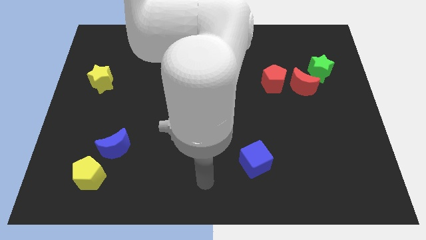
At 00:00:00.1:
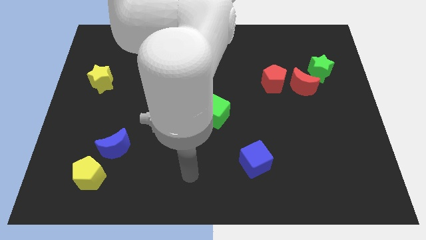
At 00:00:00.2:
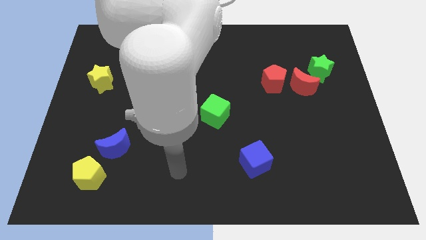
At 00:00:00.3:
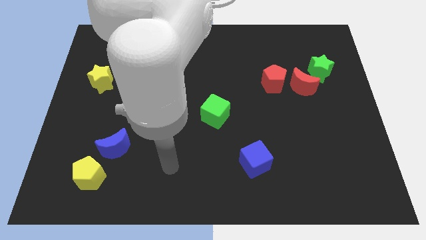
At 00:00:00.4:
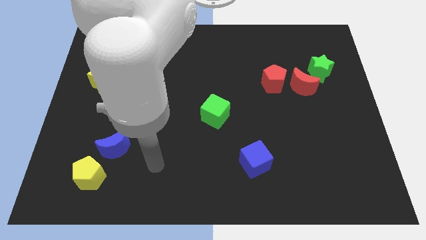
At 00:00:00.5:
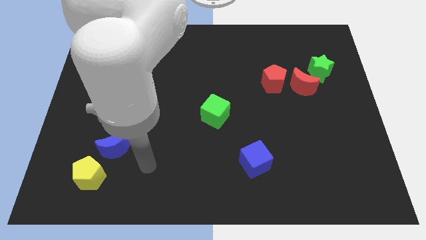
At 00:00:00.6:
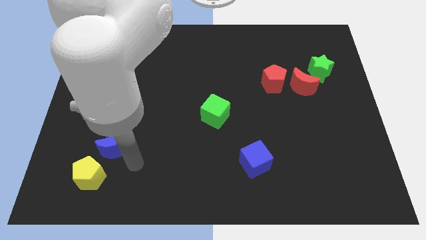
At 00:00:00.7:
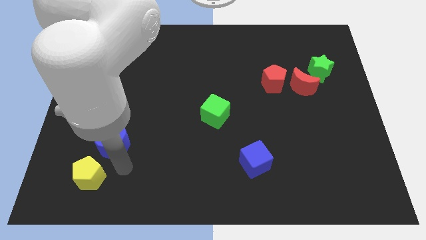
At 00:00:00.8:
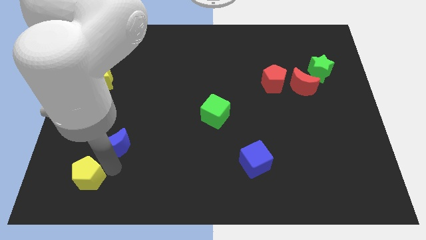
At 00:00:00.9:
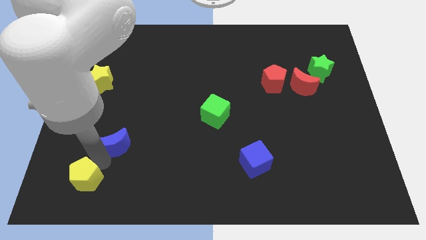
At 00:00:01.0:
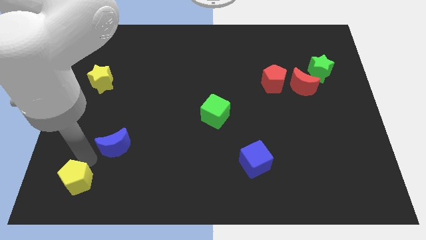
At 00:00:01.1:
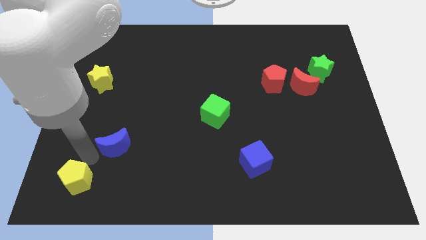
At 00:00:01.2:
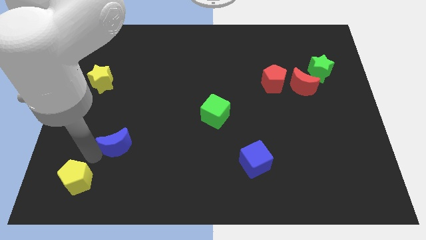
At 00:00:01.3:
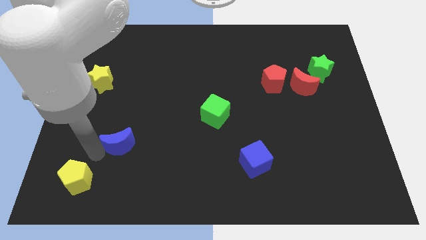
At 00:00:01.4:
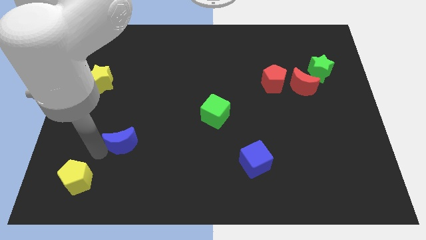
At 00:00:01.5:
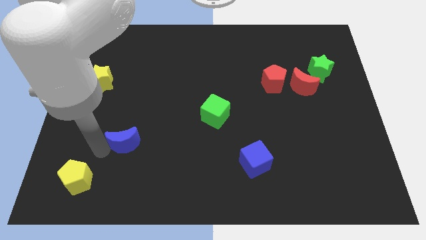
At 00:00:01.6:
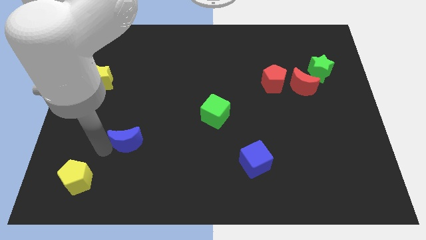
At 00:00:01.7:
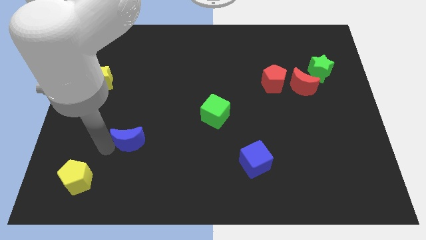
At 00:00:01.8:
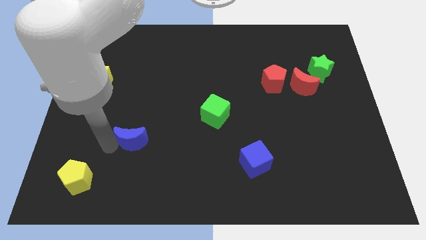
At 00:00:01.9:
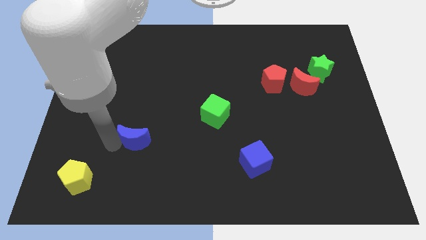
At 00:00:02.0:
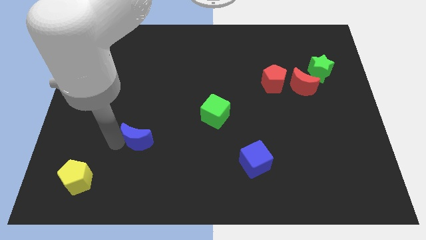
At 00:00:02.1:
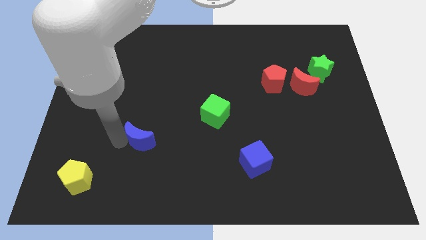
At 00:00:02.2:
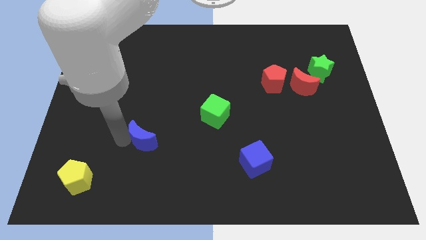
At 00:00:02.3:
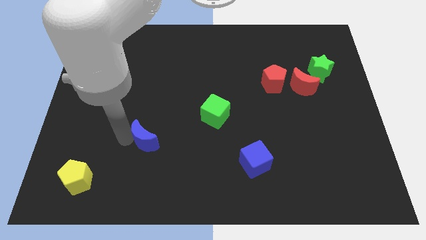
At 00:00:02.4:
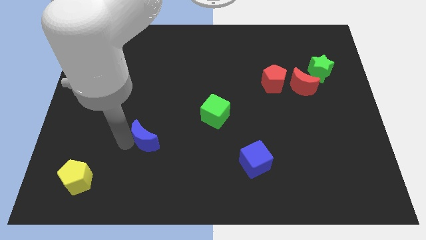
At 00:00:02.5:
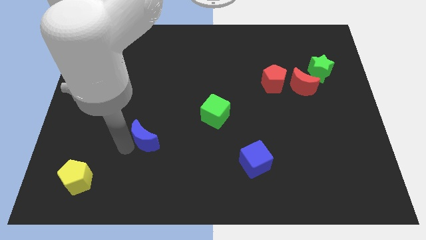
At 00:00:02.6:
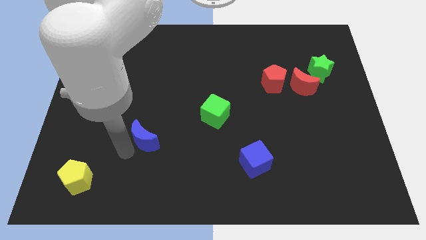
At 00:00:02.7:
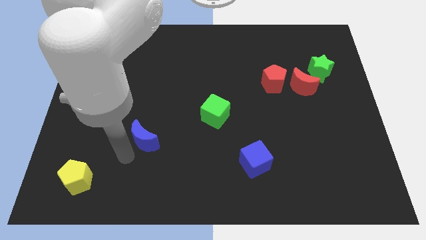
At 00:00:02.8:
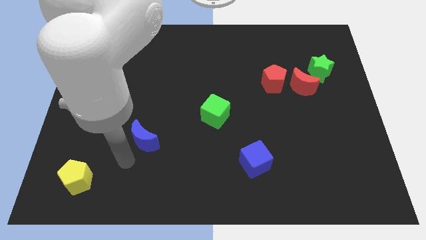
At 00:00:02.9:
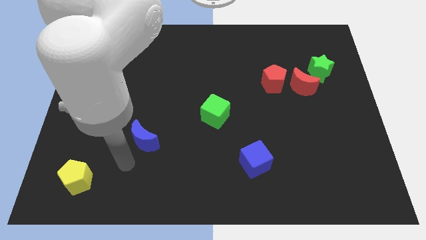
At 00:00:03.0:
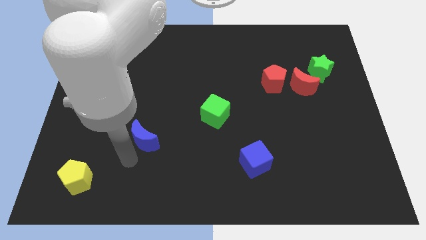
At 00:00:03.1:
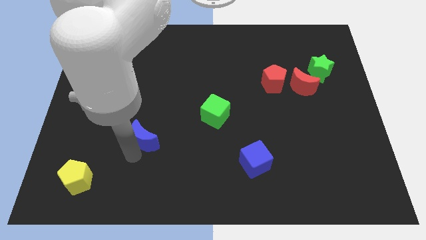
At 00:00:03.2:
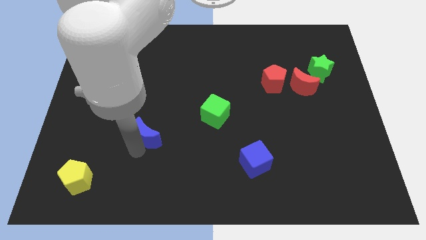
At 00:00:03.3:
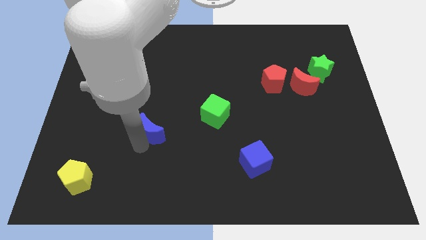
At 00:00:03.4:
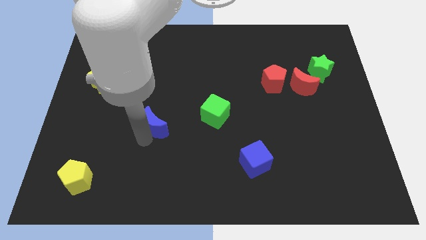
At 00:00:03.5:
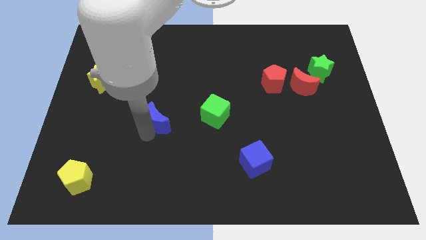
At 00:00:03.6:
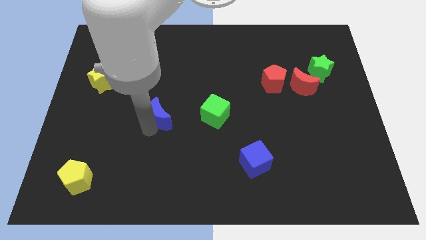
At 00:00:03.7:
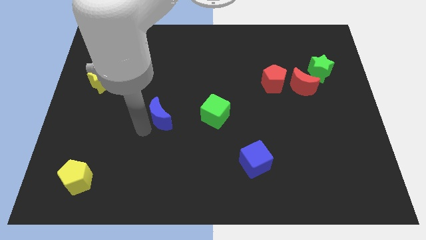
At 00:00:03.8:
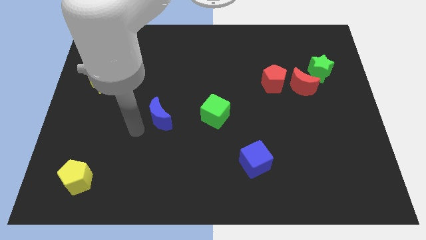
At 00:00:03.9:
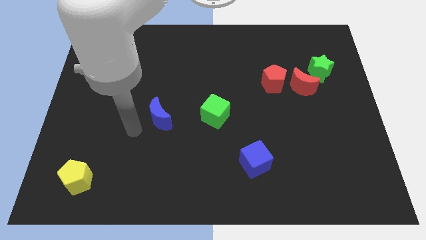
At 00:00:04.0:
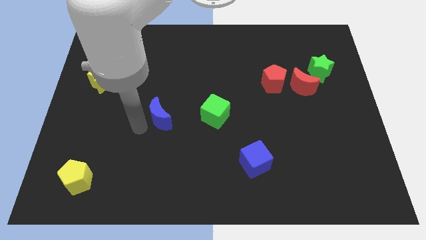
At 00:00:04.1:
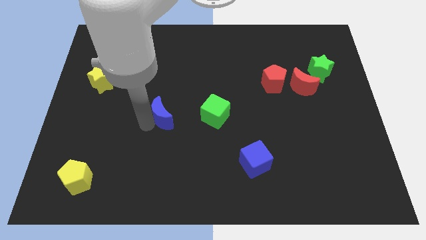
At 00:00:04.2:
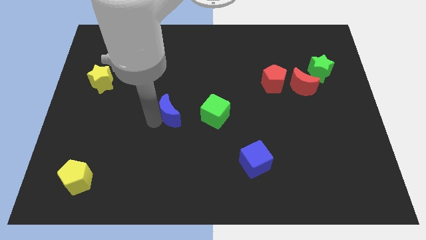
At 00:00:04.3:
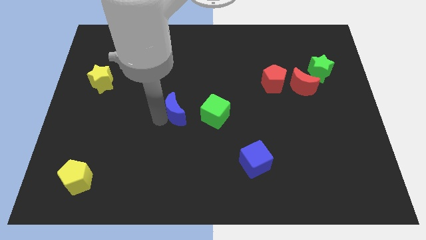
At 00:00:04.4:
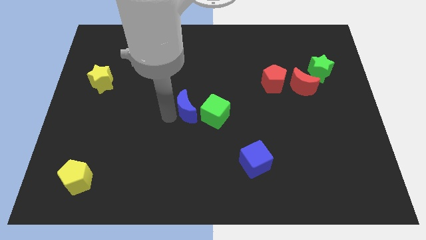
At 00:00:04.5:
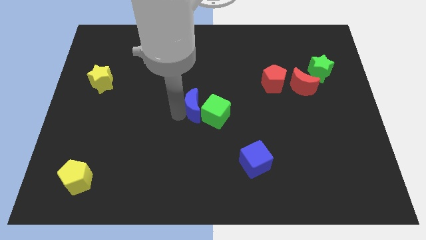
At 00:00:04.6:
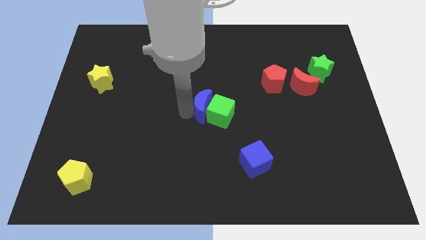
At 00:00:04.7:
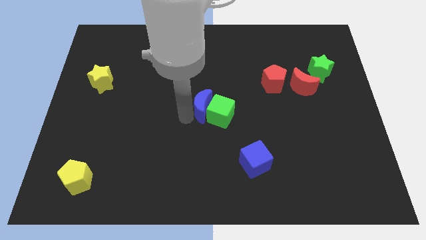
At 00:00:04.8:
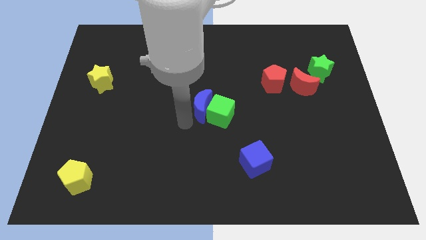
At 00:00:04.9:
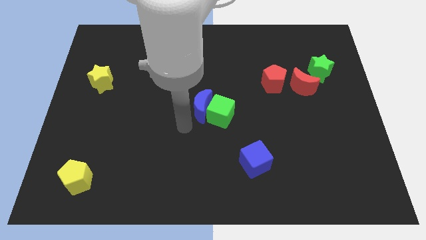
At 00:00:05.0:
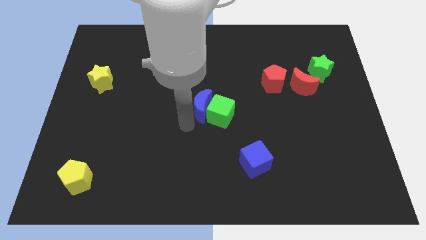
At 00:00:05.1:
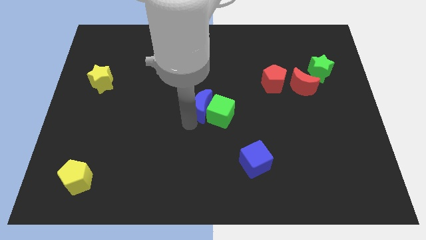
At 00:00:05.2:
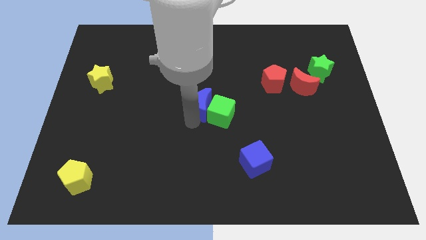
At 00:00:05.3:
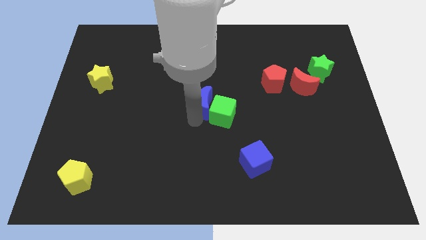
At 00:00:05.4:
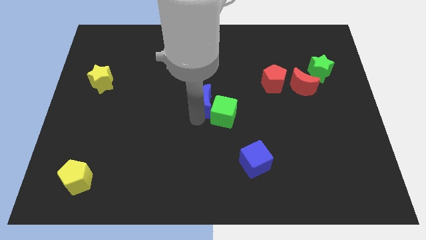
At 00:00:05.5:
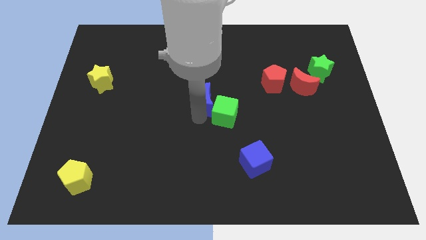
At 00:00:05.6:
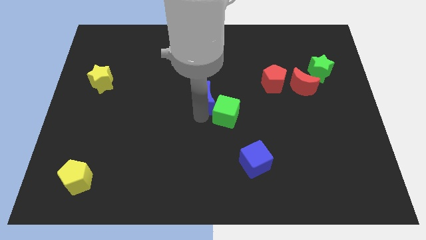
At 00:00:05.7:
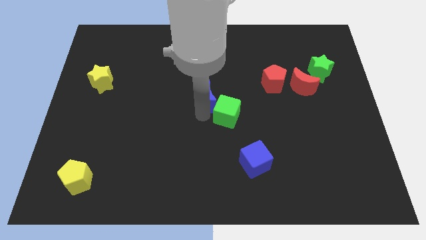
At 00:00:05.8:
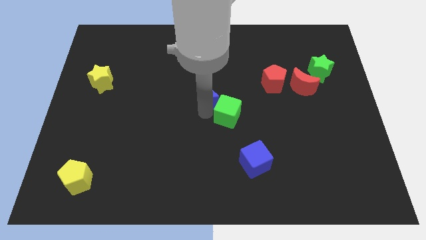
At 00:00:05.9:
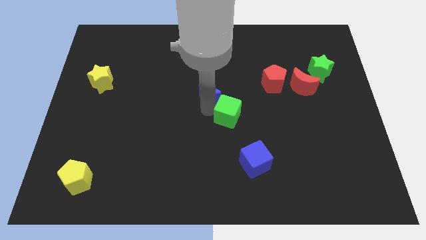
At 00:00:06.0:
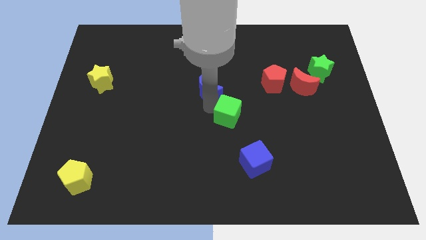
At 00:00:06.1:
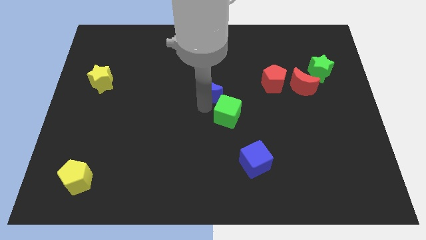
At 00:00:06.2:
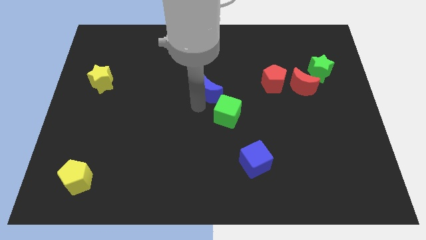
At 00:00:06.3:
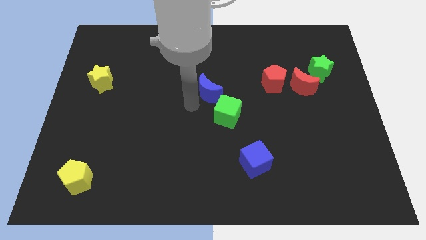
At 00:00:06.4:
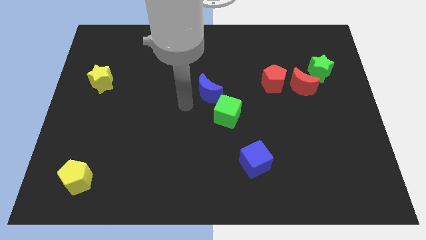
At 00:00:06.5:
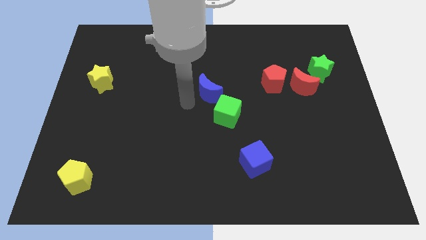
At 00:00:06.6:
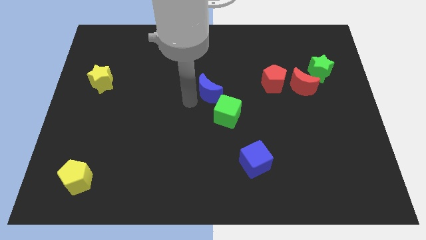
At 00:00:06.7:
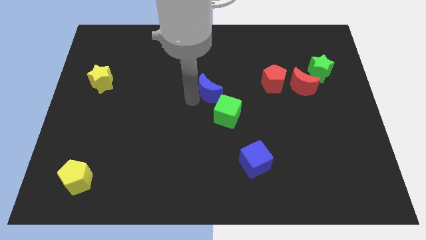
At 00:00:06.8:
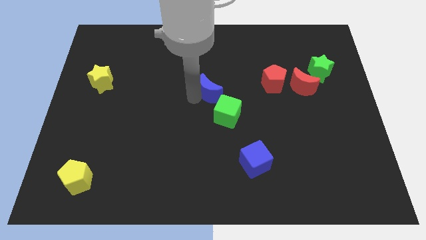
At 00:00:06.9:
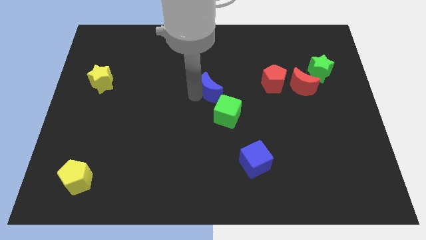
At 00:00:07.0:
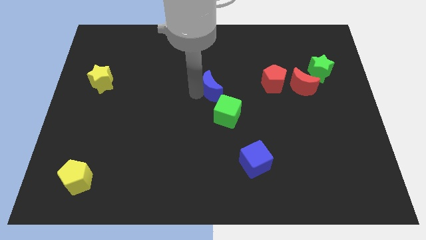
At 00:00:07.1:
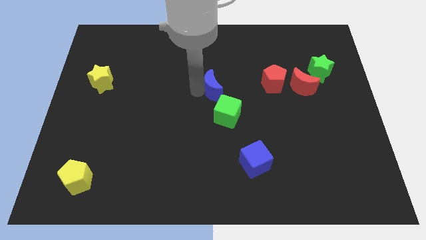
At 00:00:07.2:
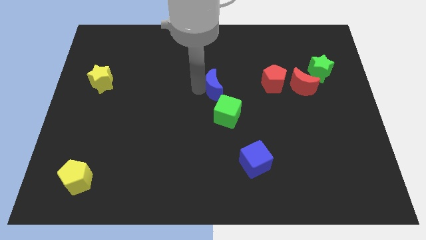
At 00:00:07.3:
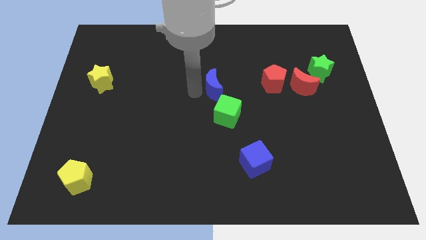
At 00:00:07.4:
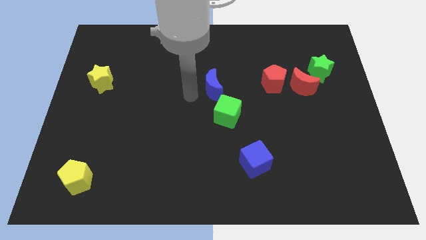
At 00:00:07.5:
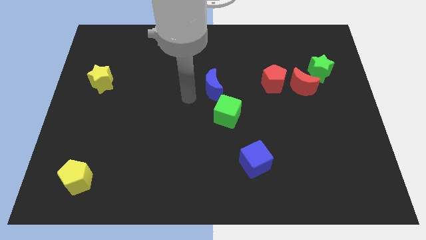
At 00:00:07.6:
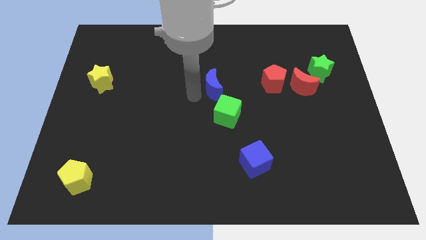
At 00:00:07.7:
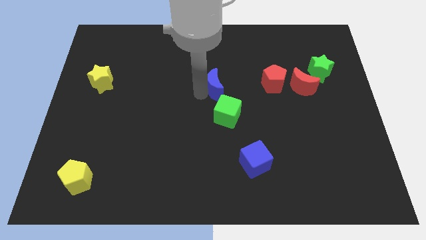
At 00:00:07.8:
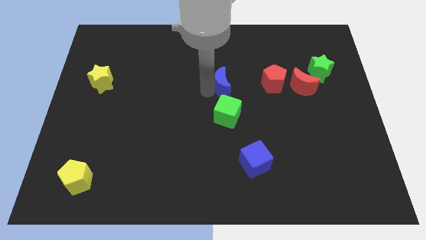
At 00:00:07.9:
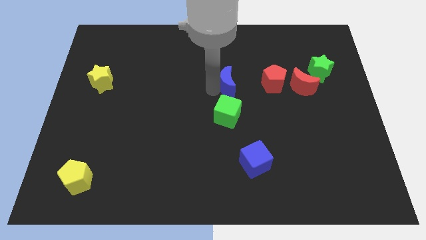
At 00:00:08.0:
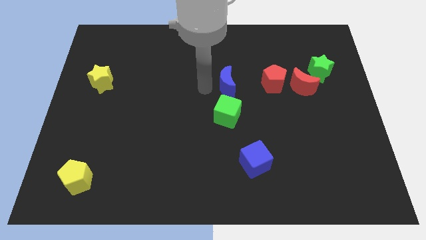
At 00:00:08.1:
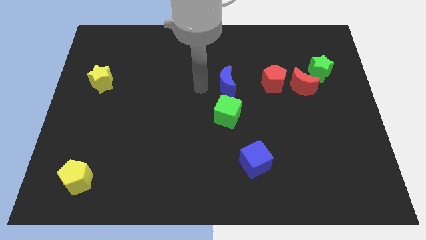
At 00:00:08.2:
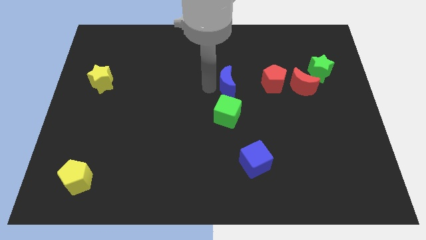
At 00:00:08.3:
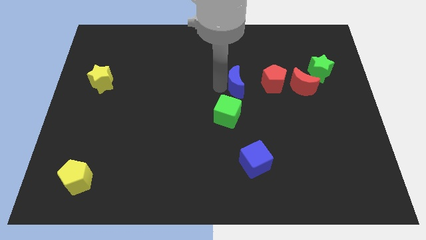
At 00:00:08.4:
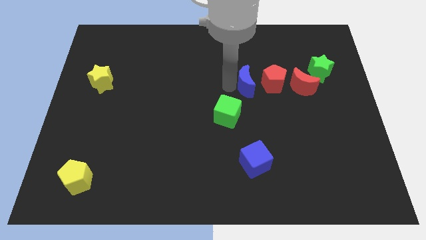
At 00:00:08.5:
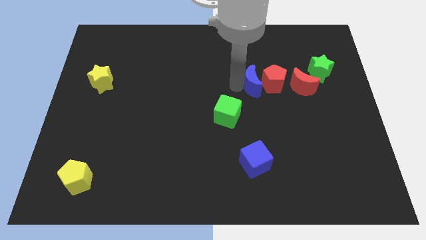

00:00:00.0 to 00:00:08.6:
slide the blue moon next to the red pentagon
